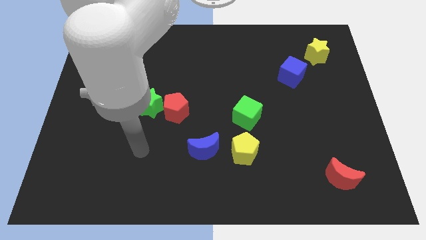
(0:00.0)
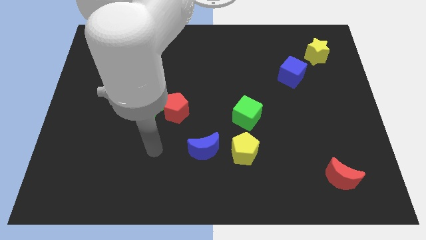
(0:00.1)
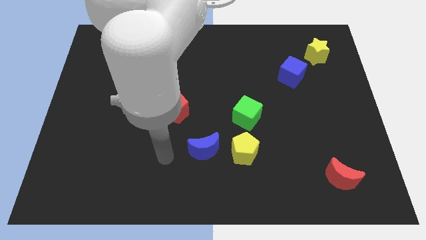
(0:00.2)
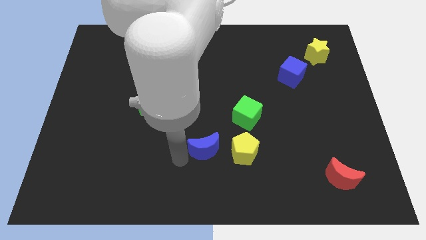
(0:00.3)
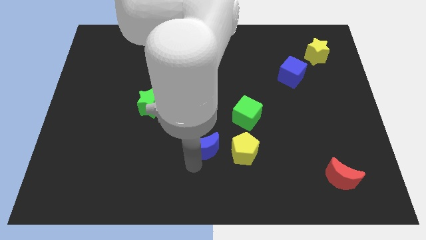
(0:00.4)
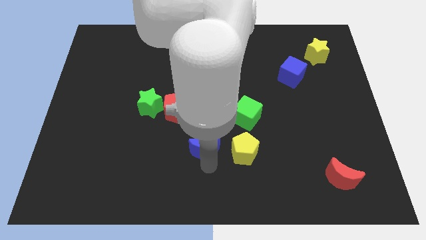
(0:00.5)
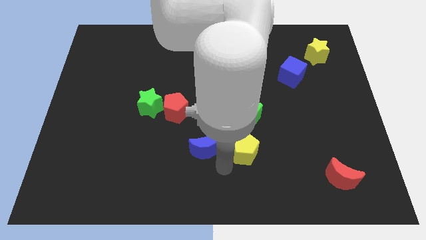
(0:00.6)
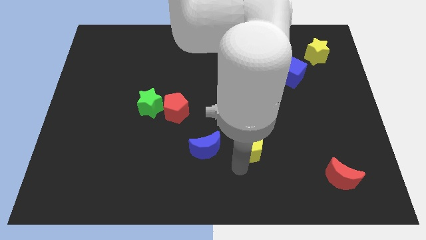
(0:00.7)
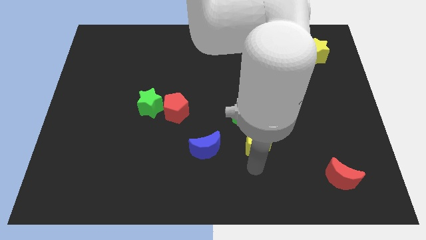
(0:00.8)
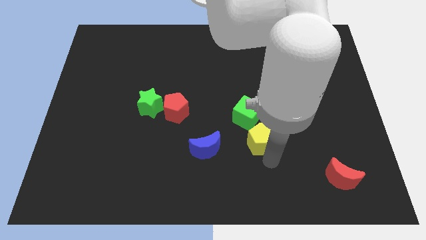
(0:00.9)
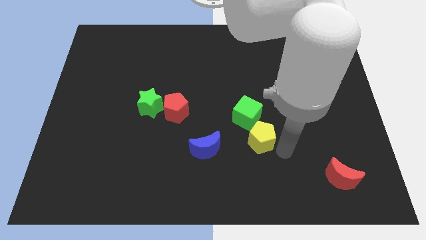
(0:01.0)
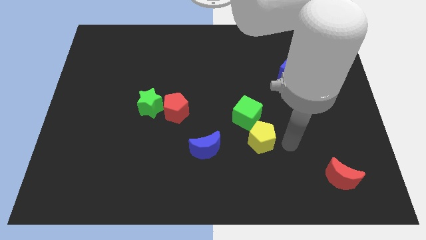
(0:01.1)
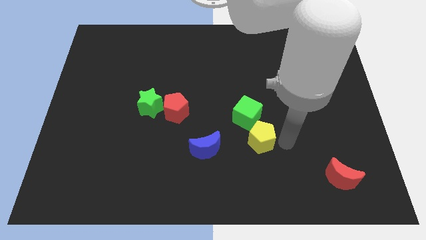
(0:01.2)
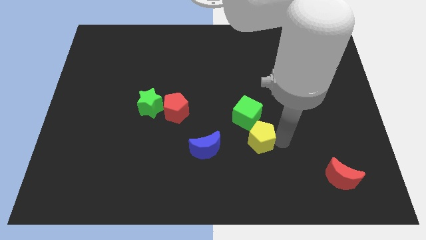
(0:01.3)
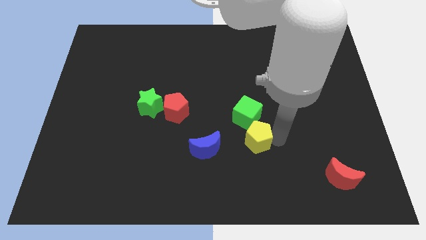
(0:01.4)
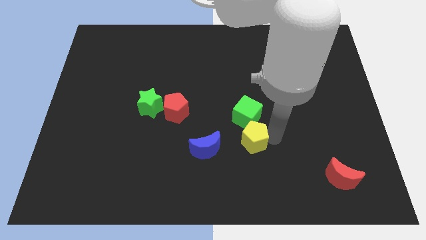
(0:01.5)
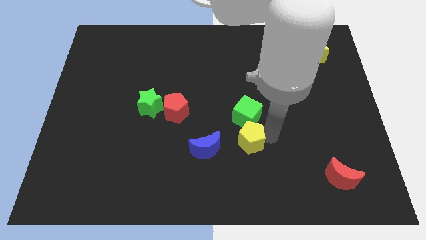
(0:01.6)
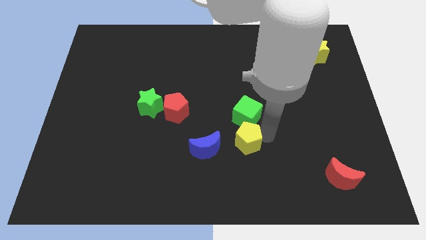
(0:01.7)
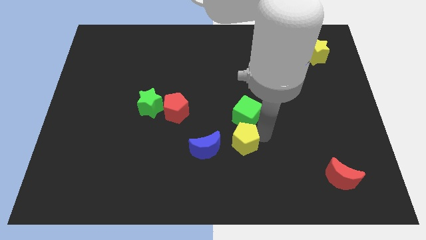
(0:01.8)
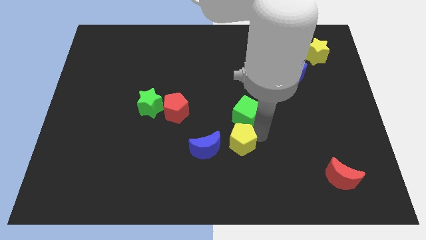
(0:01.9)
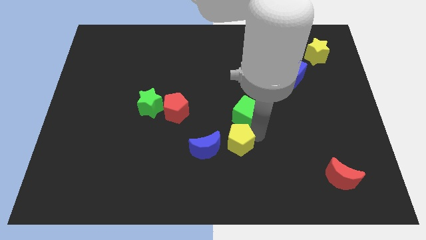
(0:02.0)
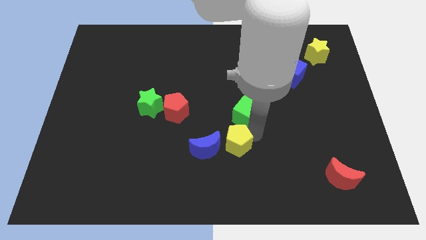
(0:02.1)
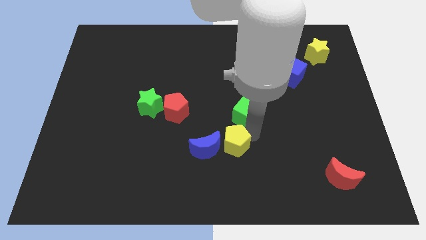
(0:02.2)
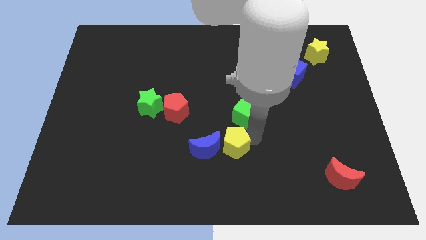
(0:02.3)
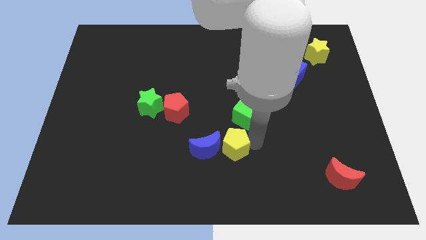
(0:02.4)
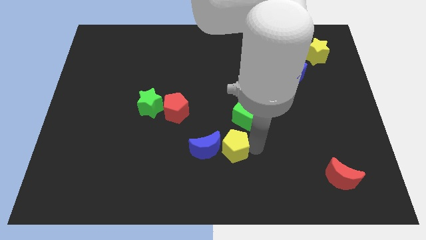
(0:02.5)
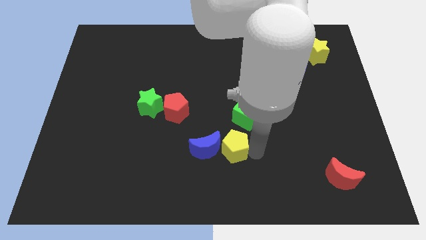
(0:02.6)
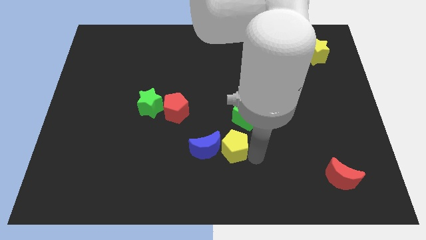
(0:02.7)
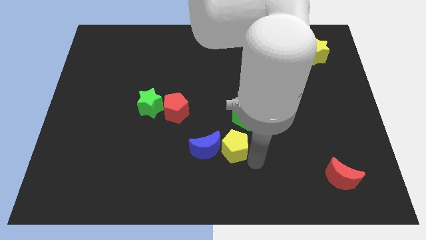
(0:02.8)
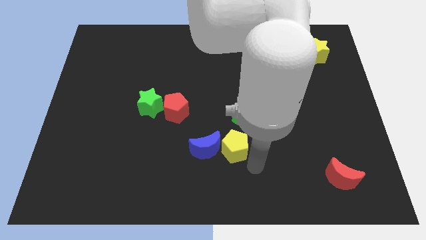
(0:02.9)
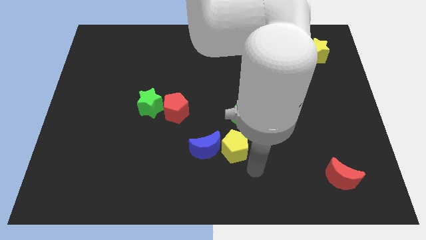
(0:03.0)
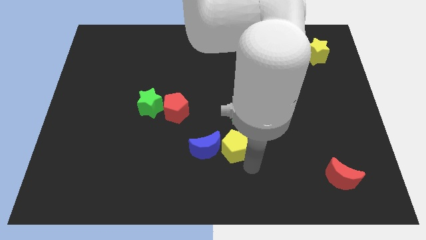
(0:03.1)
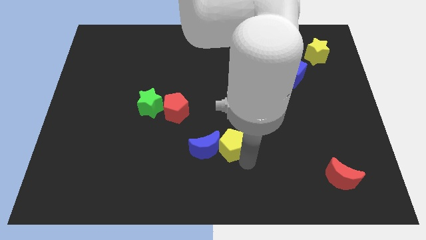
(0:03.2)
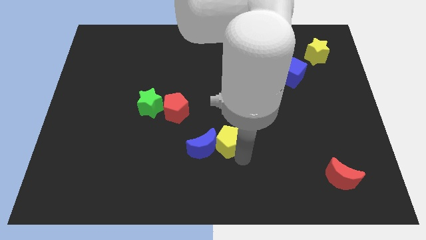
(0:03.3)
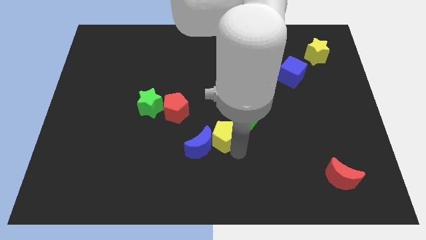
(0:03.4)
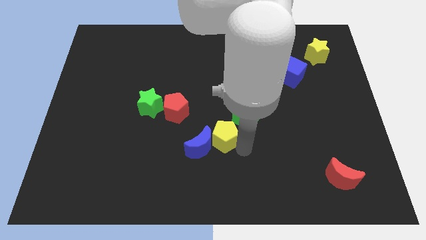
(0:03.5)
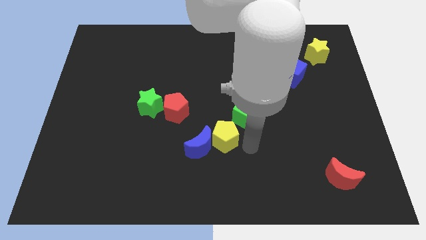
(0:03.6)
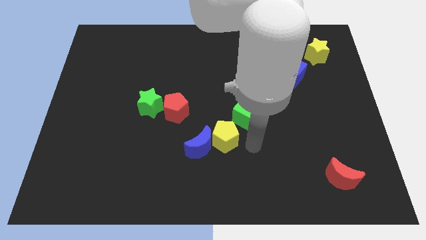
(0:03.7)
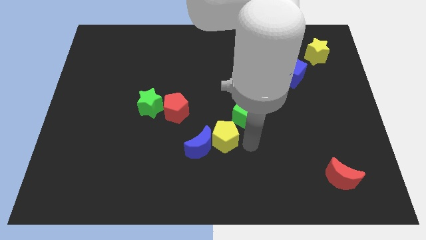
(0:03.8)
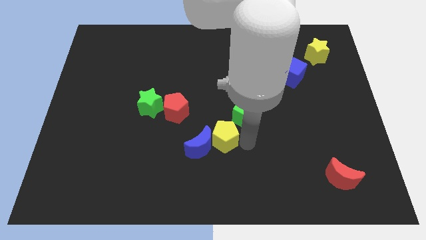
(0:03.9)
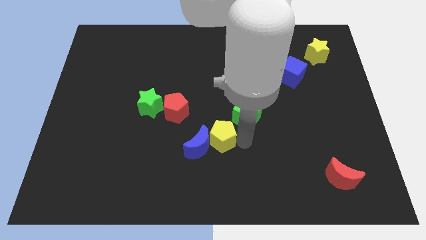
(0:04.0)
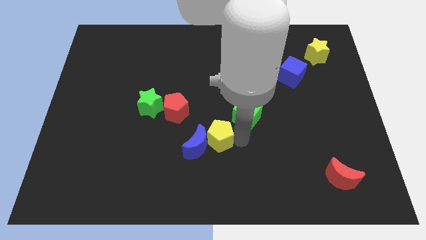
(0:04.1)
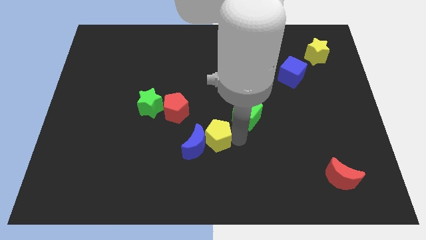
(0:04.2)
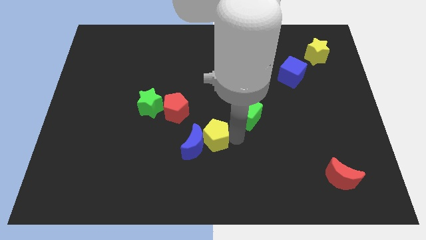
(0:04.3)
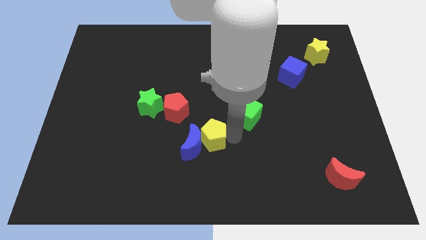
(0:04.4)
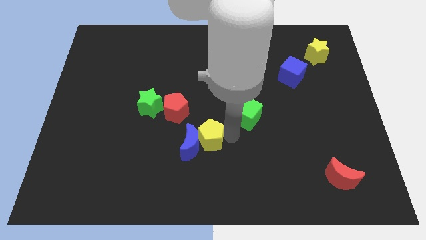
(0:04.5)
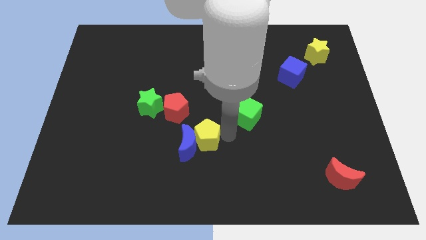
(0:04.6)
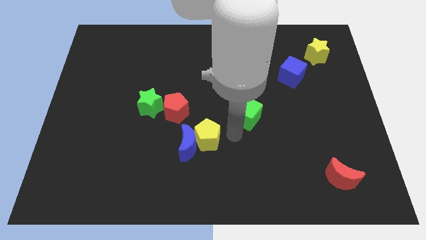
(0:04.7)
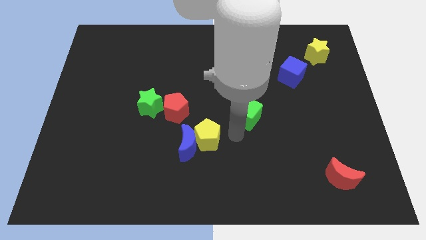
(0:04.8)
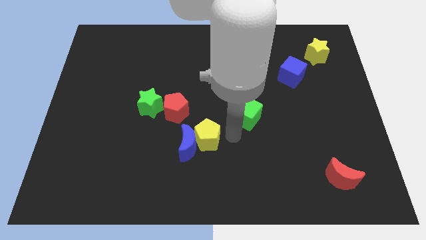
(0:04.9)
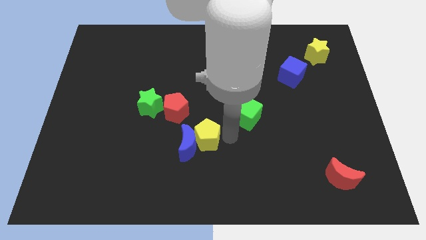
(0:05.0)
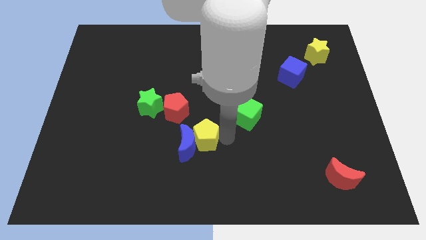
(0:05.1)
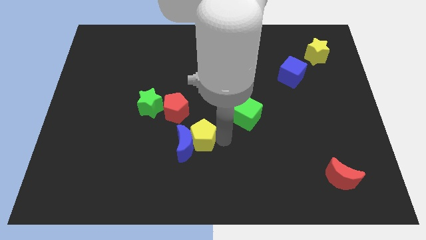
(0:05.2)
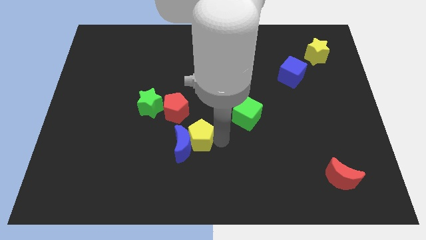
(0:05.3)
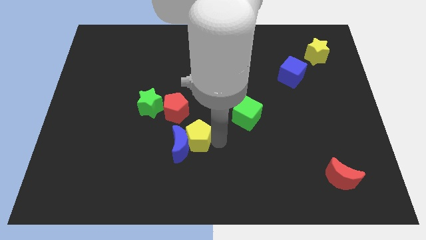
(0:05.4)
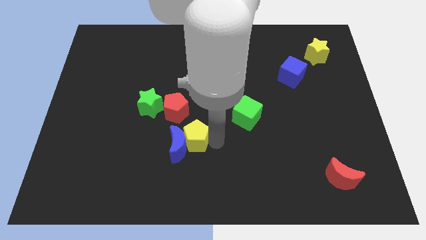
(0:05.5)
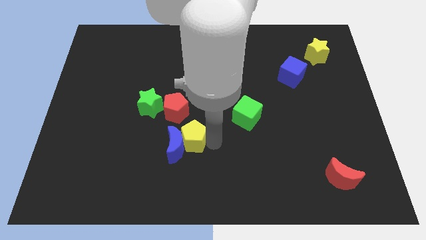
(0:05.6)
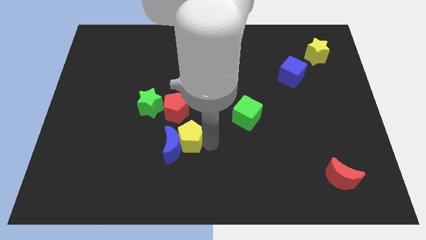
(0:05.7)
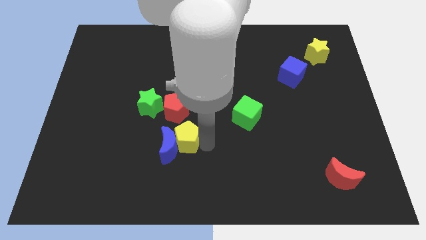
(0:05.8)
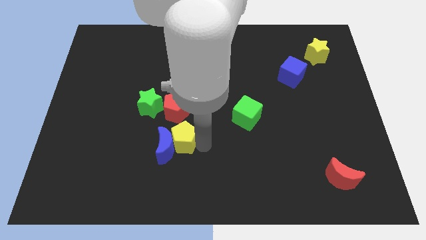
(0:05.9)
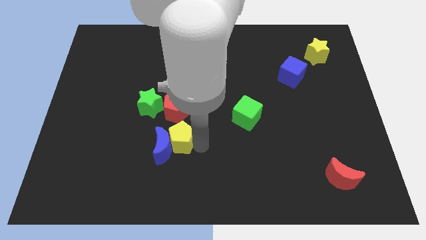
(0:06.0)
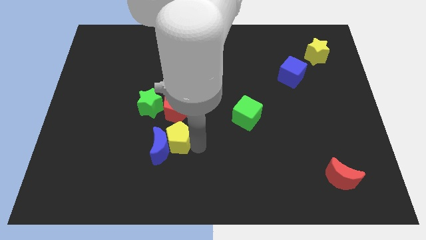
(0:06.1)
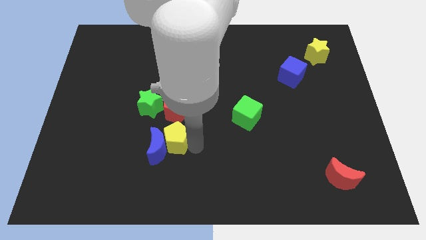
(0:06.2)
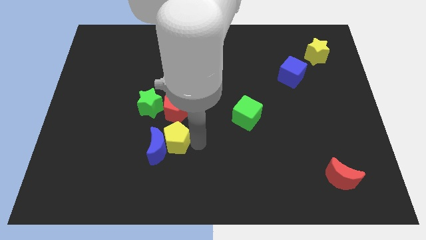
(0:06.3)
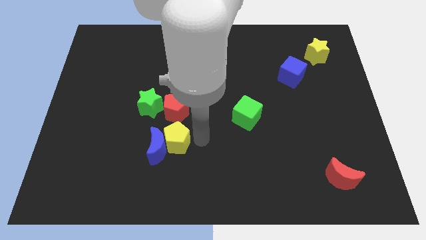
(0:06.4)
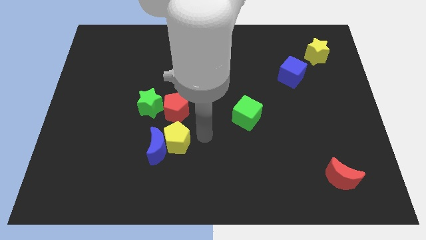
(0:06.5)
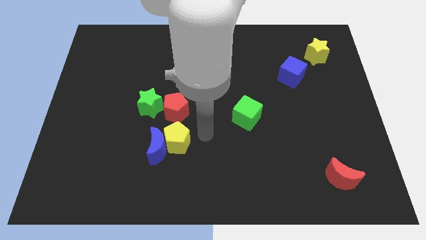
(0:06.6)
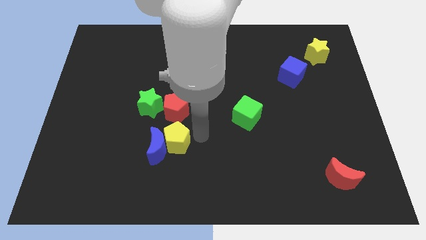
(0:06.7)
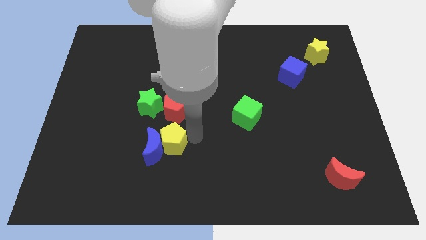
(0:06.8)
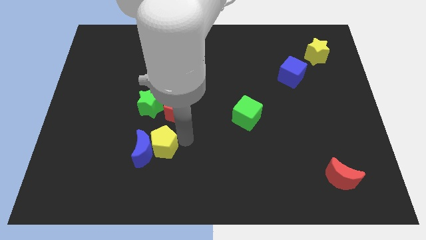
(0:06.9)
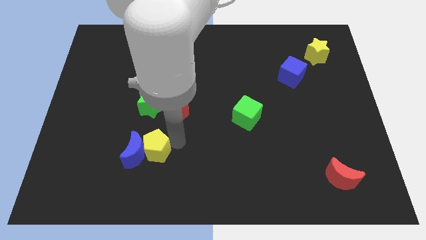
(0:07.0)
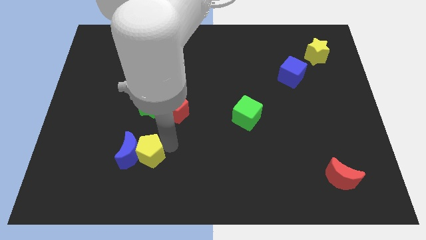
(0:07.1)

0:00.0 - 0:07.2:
move the yellow pentagon to the left

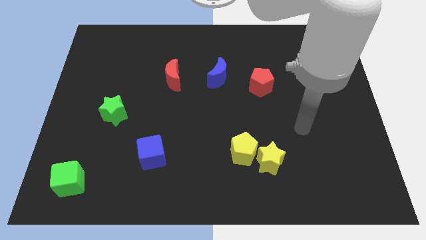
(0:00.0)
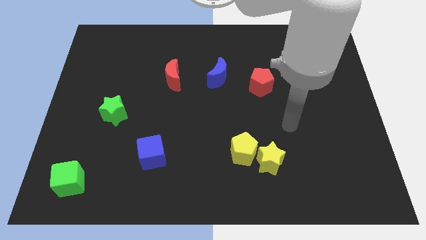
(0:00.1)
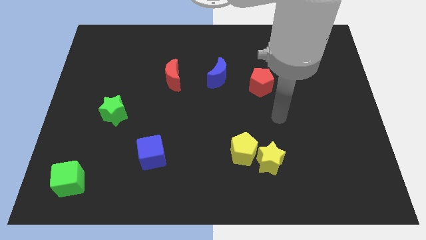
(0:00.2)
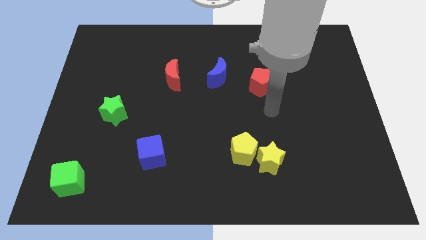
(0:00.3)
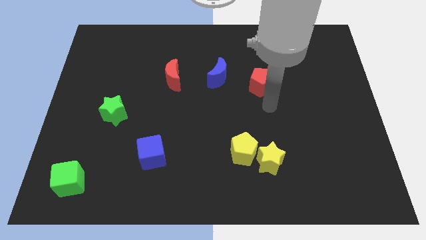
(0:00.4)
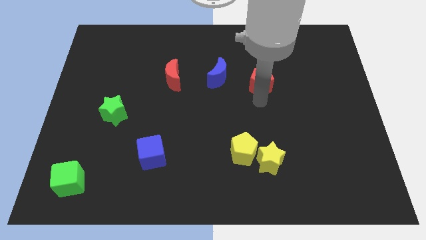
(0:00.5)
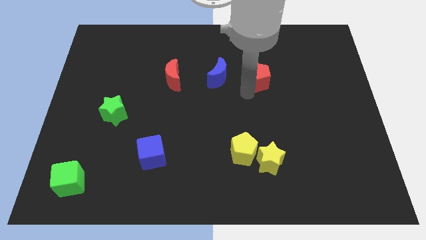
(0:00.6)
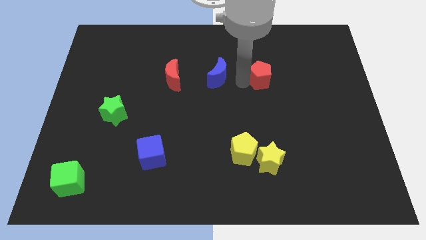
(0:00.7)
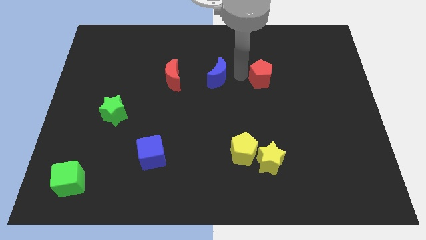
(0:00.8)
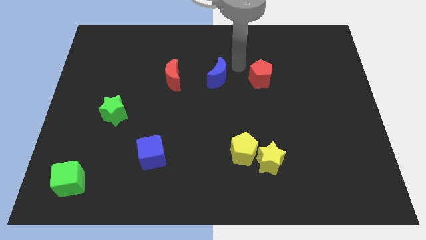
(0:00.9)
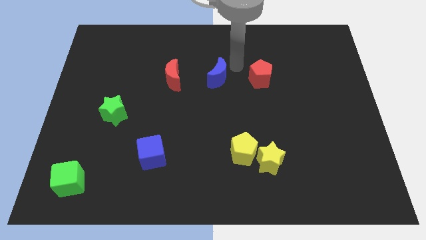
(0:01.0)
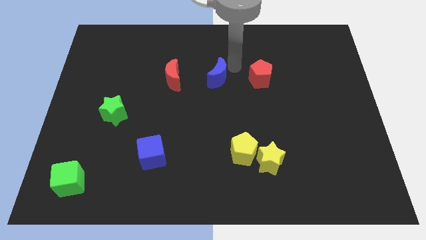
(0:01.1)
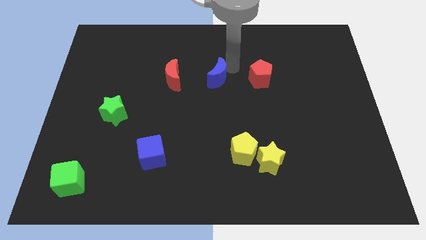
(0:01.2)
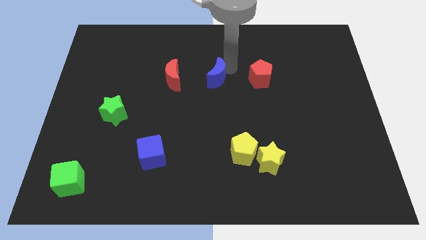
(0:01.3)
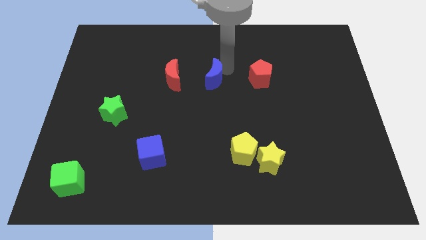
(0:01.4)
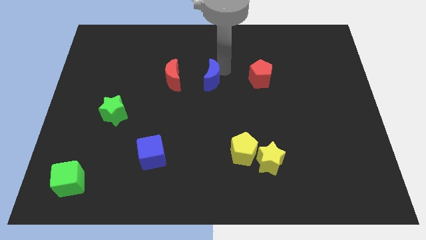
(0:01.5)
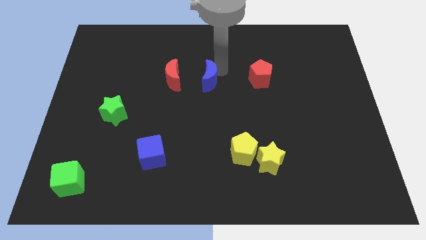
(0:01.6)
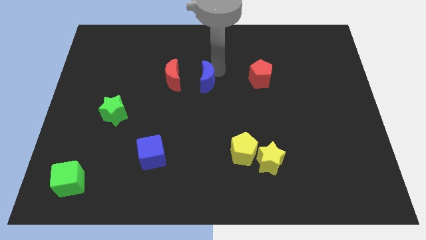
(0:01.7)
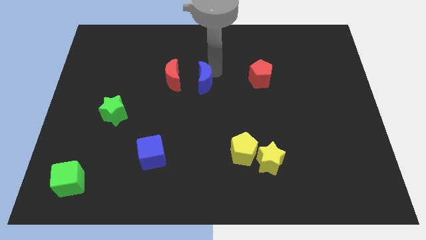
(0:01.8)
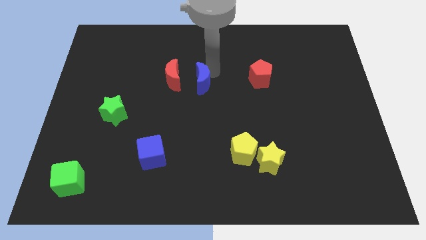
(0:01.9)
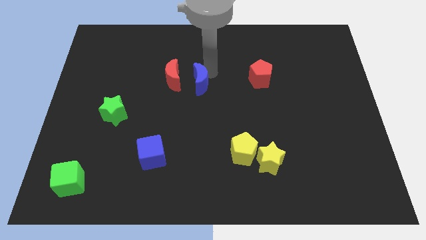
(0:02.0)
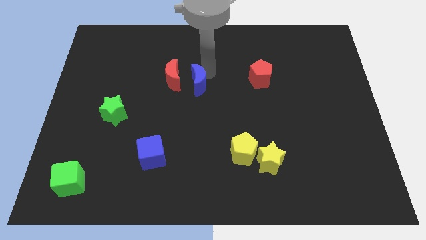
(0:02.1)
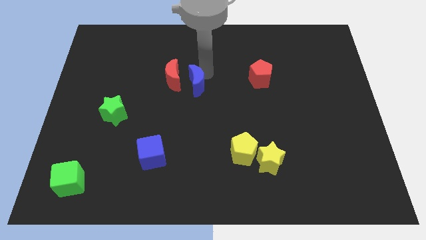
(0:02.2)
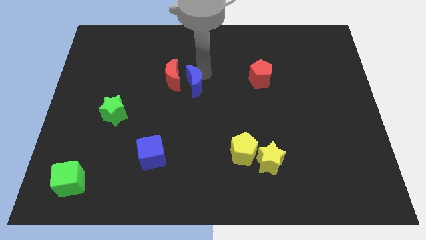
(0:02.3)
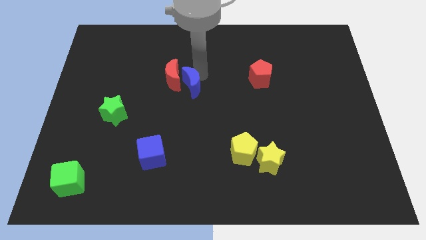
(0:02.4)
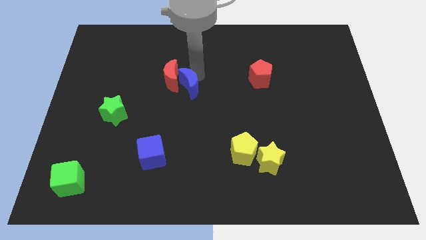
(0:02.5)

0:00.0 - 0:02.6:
slightly slide the blue moon diagonally downwards and to the left
